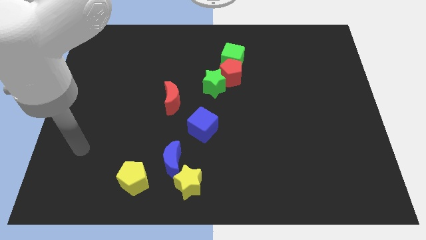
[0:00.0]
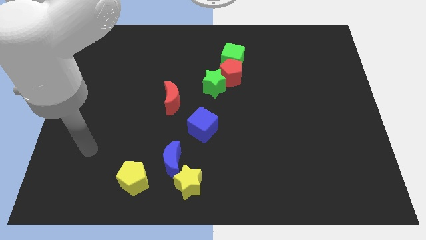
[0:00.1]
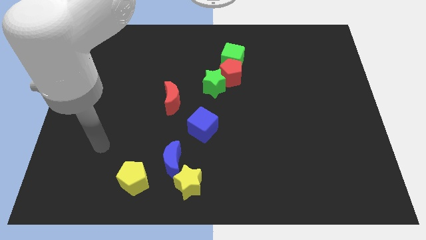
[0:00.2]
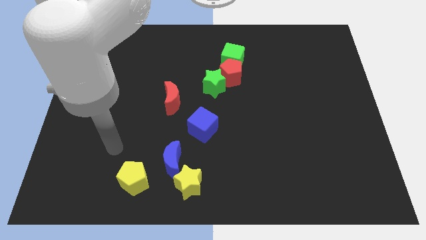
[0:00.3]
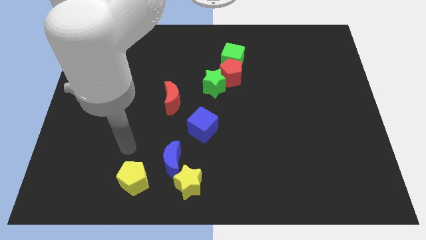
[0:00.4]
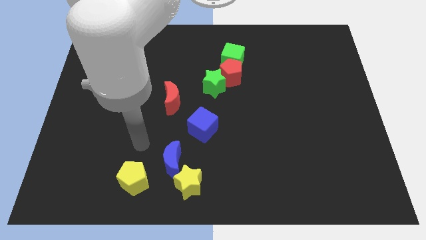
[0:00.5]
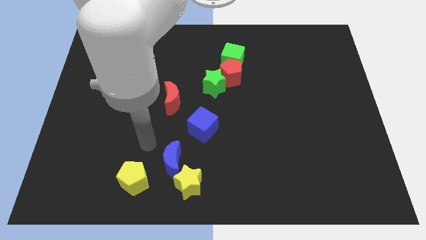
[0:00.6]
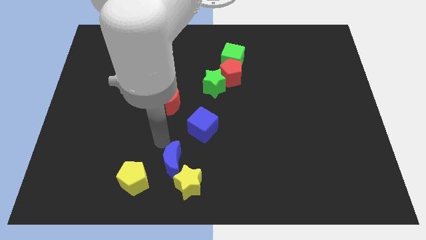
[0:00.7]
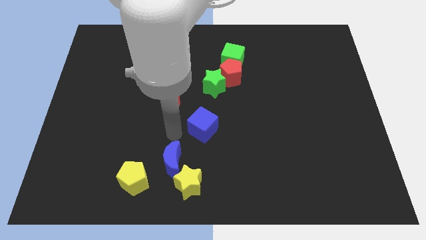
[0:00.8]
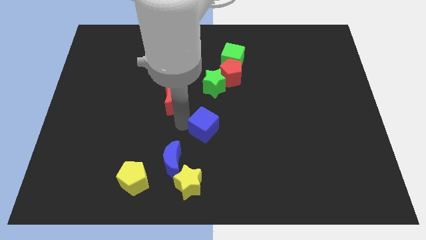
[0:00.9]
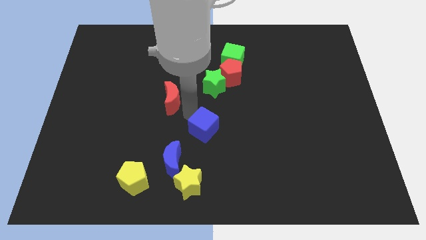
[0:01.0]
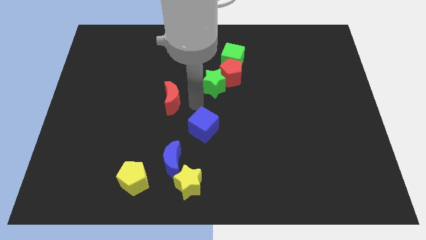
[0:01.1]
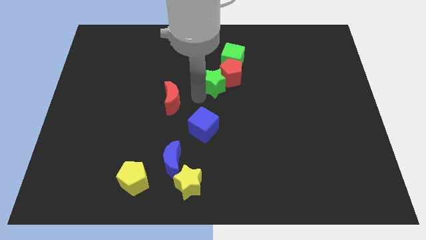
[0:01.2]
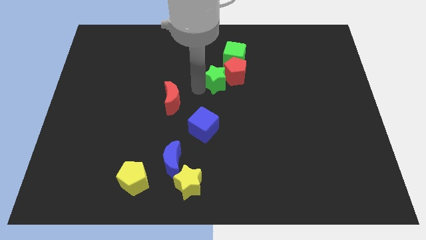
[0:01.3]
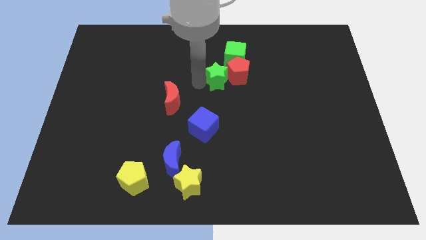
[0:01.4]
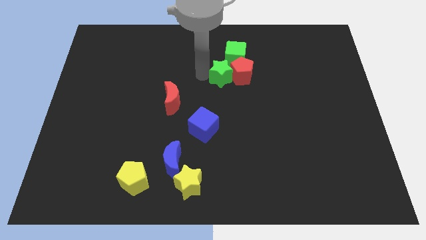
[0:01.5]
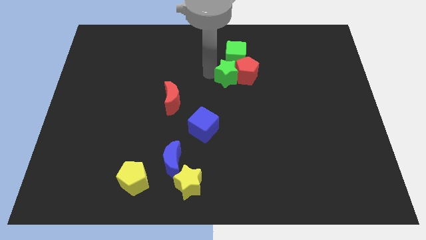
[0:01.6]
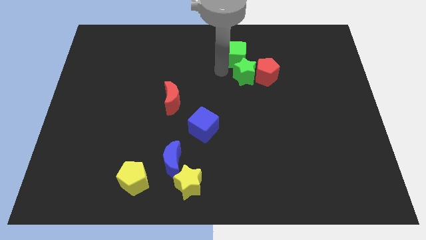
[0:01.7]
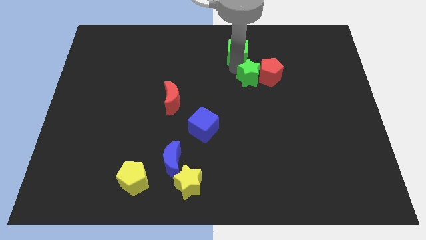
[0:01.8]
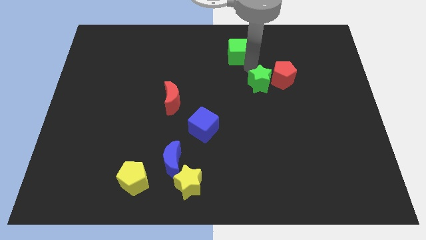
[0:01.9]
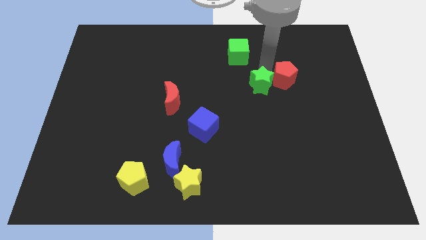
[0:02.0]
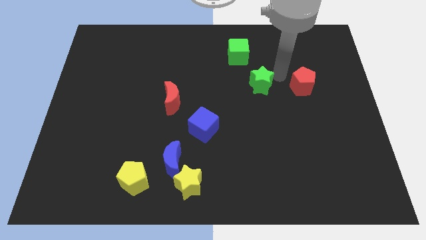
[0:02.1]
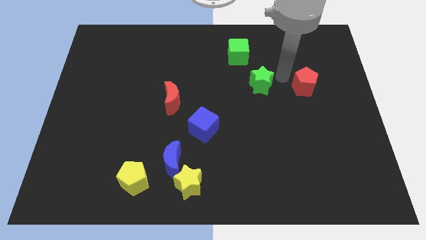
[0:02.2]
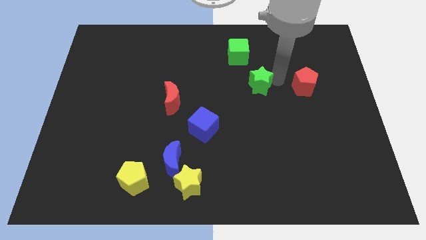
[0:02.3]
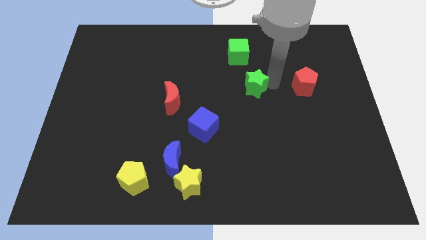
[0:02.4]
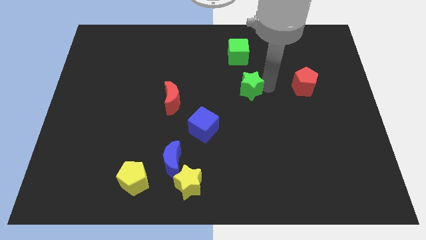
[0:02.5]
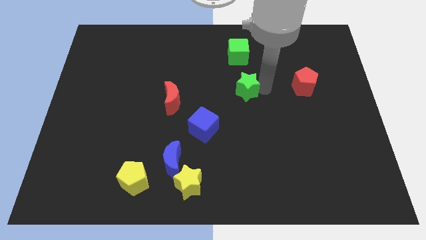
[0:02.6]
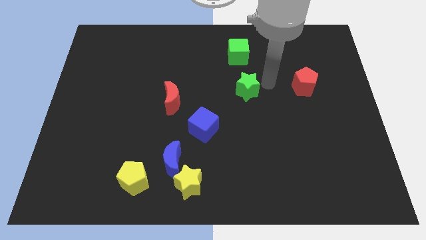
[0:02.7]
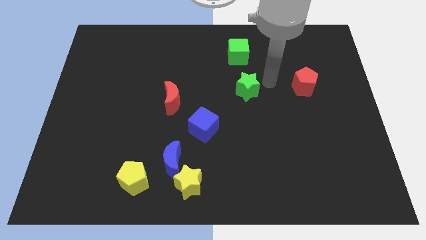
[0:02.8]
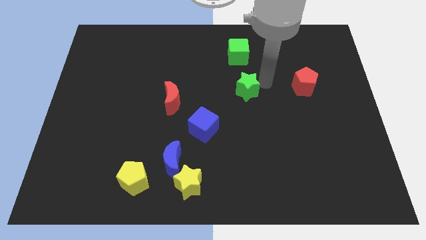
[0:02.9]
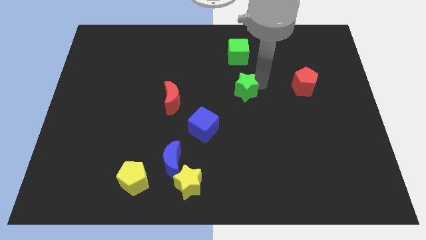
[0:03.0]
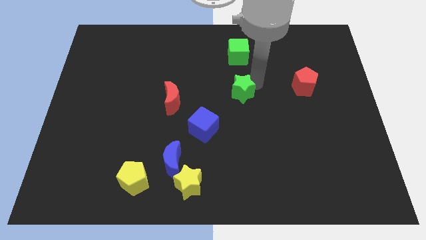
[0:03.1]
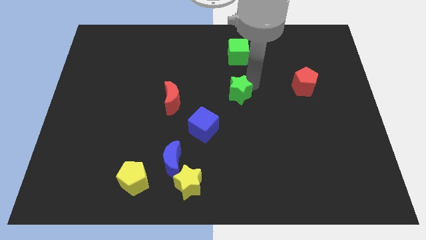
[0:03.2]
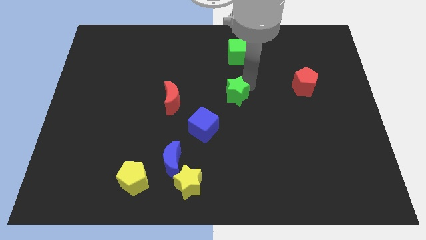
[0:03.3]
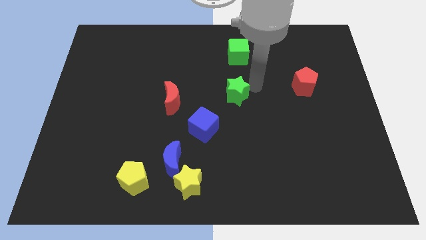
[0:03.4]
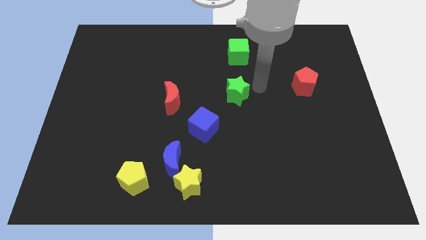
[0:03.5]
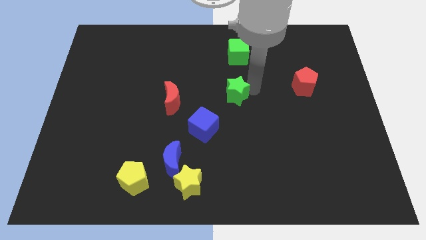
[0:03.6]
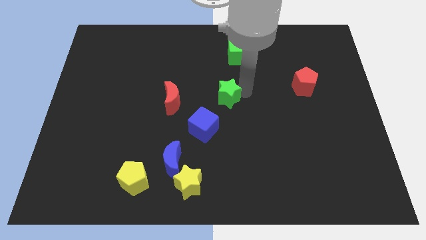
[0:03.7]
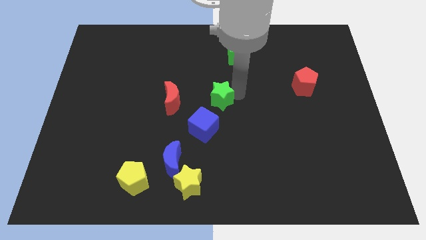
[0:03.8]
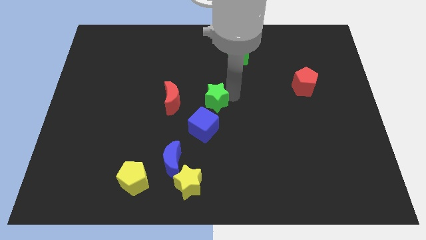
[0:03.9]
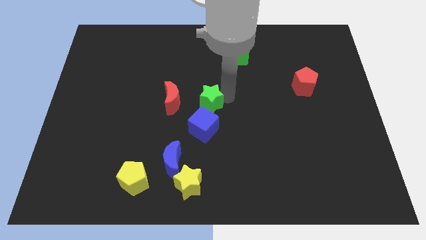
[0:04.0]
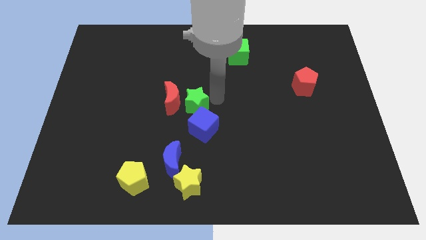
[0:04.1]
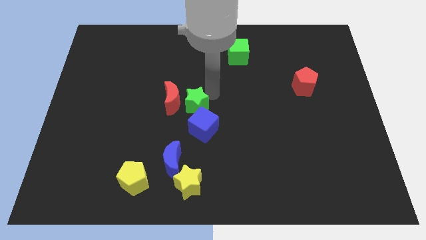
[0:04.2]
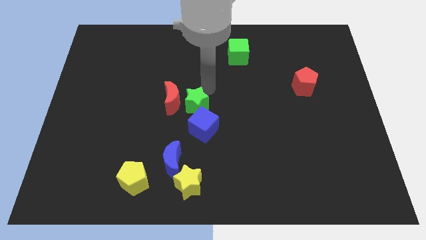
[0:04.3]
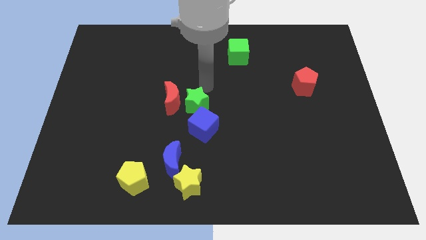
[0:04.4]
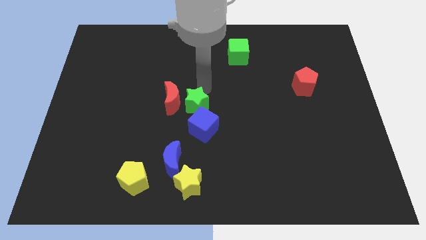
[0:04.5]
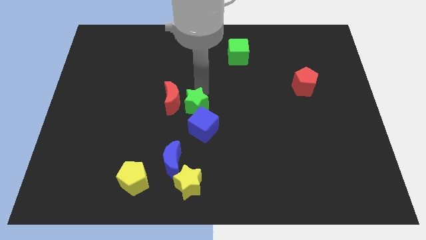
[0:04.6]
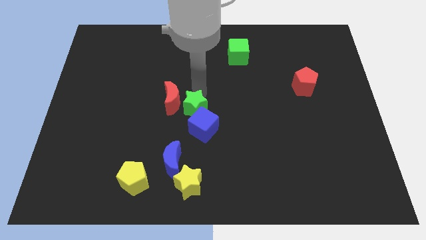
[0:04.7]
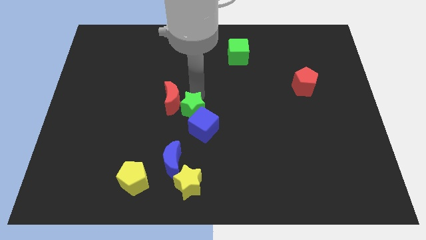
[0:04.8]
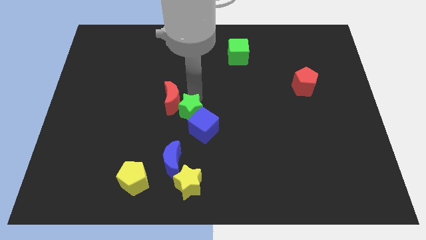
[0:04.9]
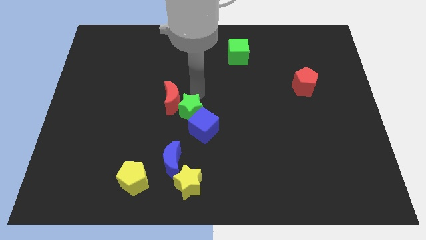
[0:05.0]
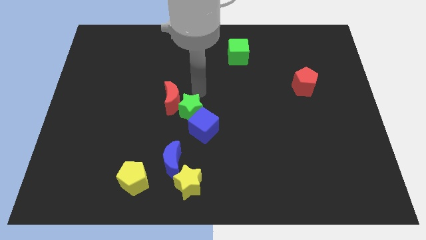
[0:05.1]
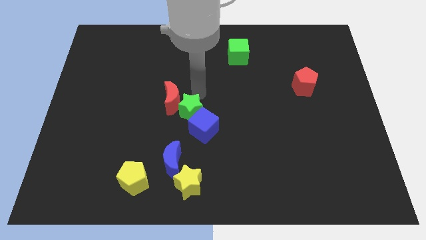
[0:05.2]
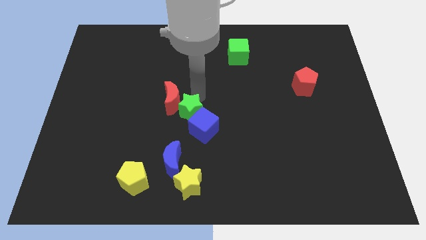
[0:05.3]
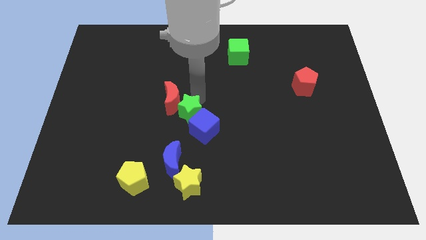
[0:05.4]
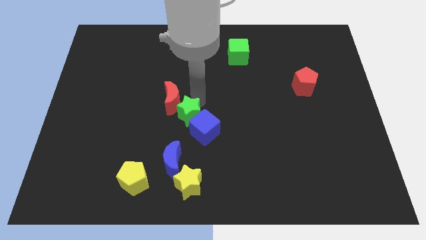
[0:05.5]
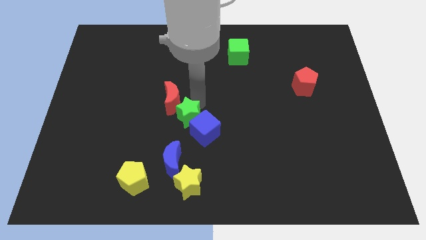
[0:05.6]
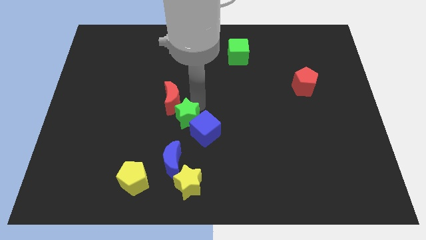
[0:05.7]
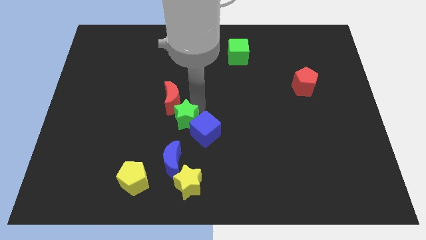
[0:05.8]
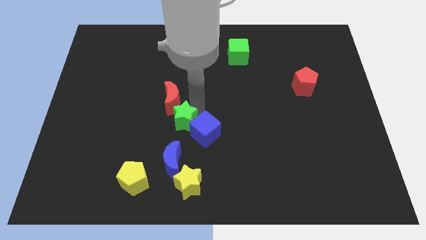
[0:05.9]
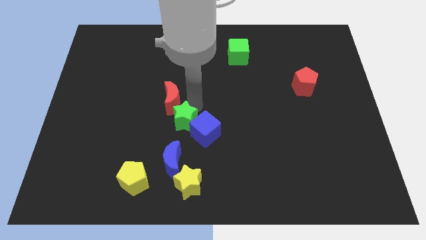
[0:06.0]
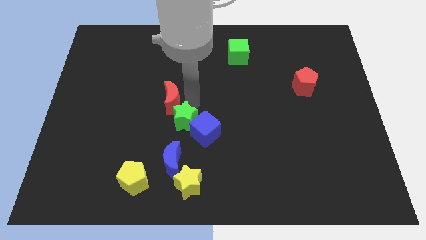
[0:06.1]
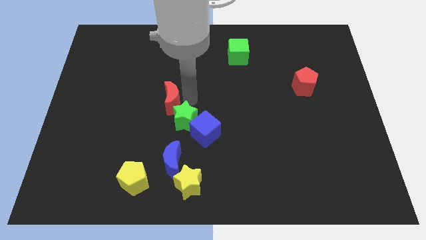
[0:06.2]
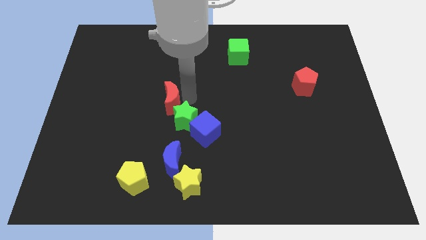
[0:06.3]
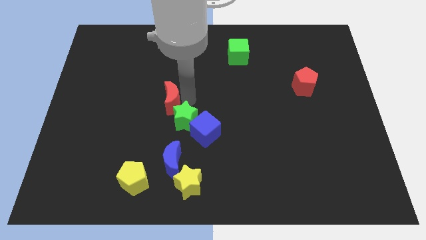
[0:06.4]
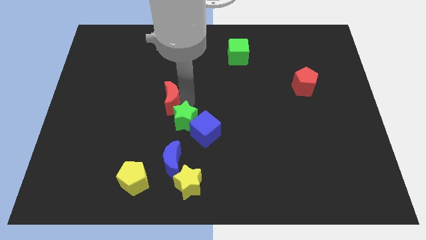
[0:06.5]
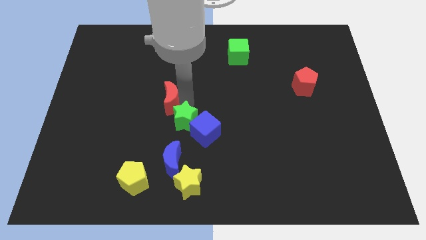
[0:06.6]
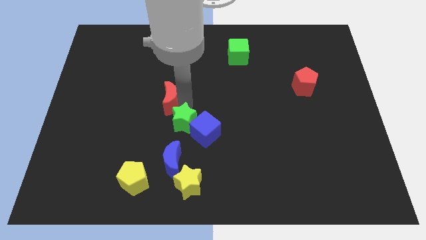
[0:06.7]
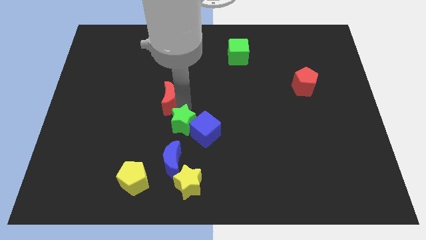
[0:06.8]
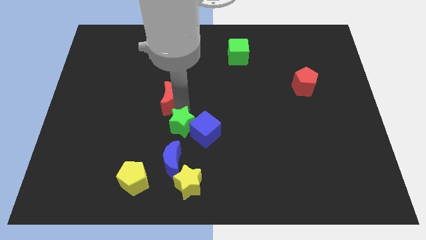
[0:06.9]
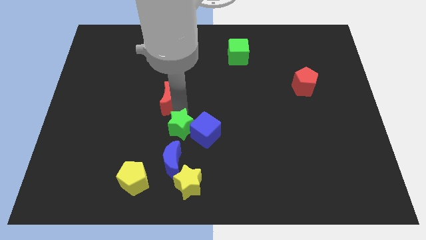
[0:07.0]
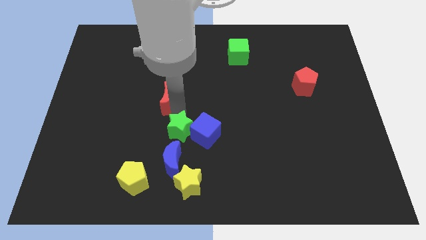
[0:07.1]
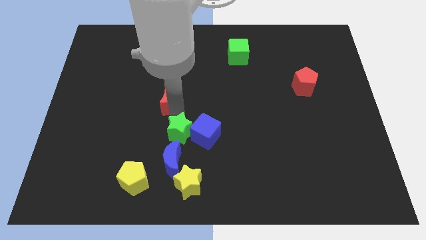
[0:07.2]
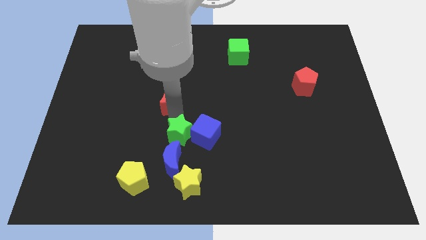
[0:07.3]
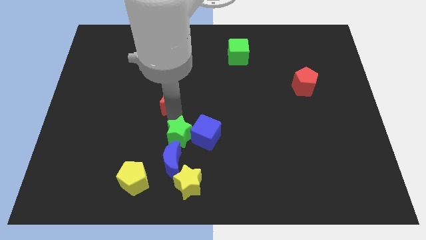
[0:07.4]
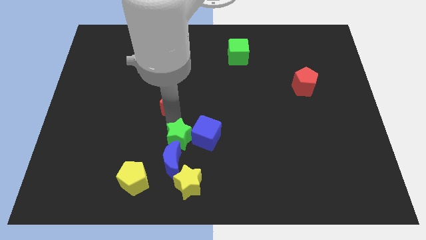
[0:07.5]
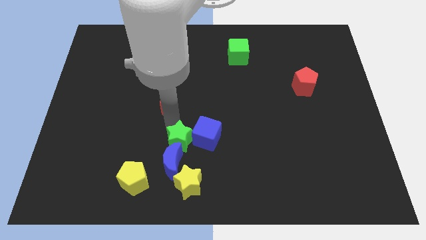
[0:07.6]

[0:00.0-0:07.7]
slide the green star diagonally up and to the right of the yellow pentagon
